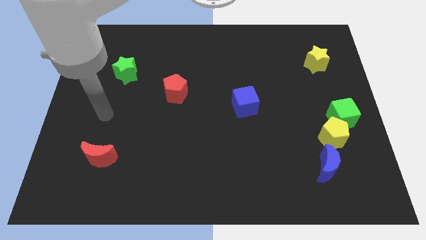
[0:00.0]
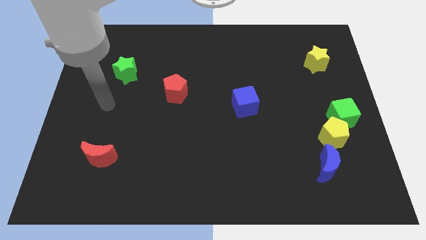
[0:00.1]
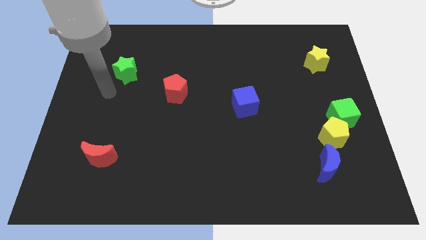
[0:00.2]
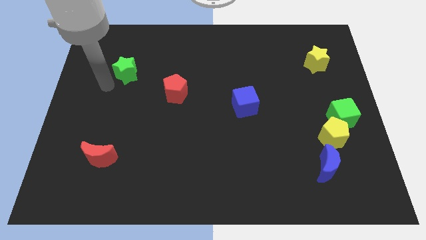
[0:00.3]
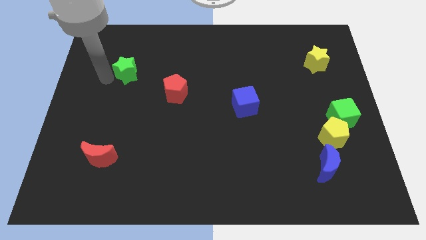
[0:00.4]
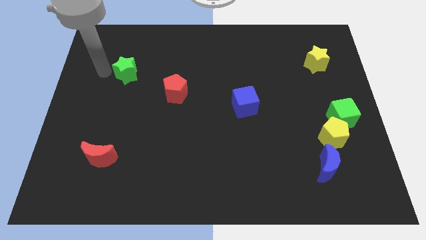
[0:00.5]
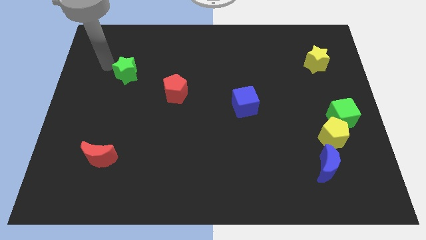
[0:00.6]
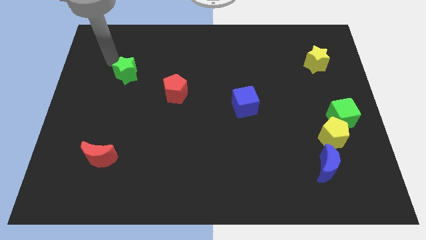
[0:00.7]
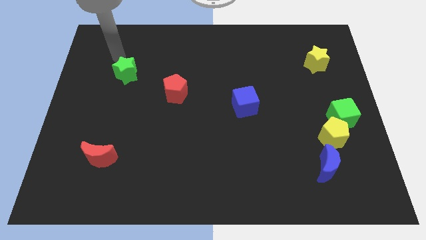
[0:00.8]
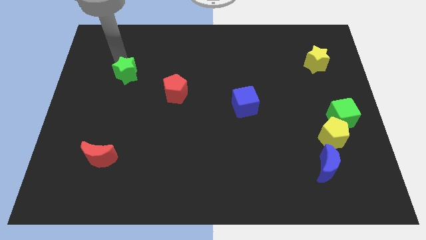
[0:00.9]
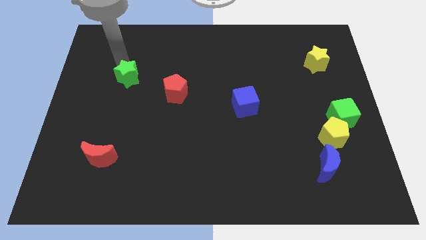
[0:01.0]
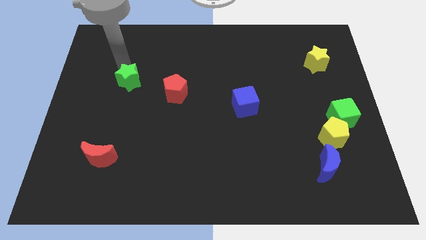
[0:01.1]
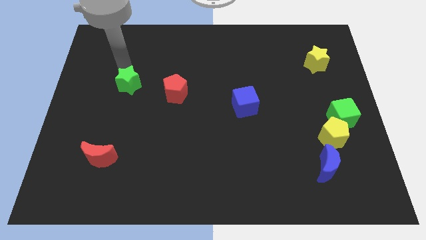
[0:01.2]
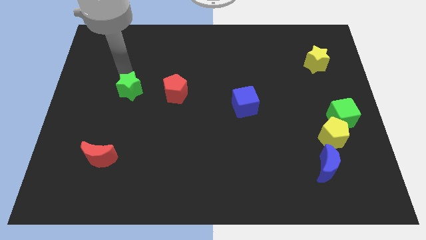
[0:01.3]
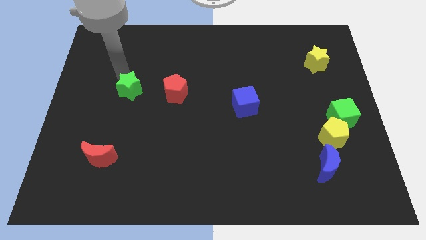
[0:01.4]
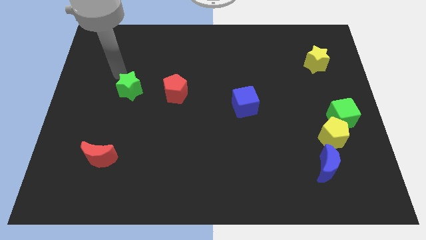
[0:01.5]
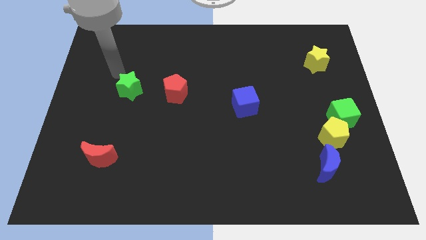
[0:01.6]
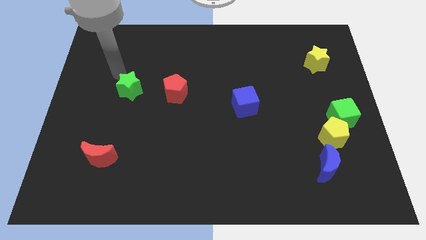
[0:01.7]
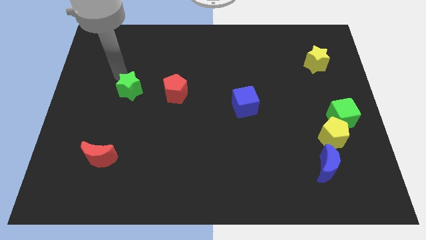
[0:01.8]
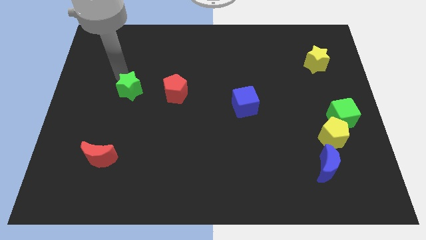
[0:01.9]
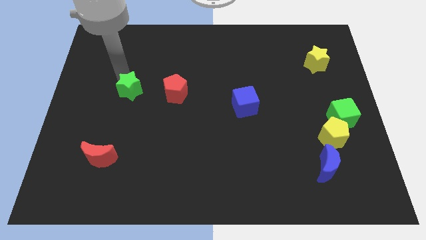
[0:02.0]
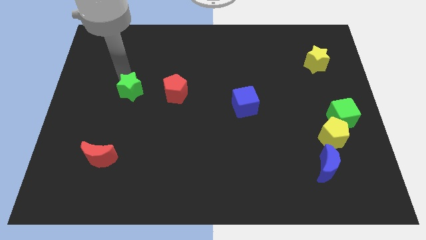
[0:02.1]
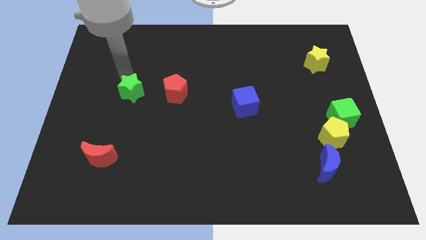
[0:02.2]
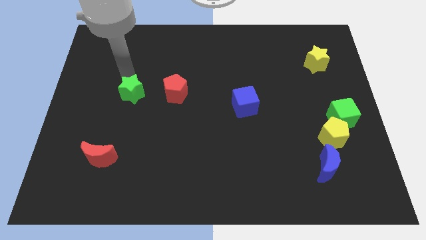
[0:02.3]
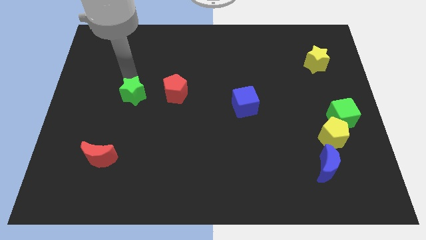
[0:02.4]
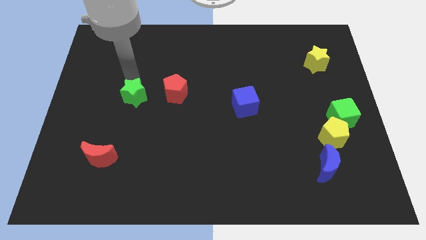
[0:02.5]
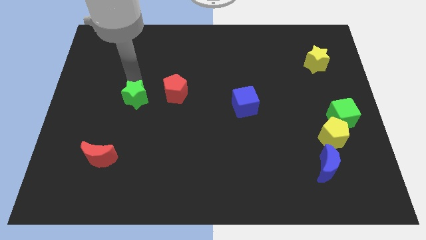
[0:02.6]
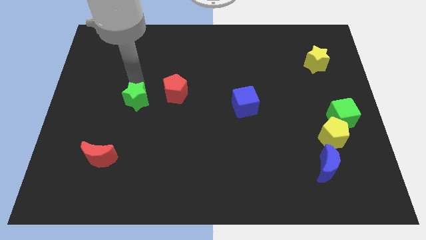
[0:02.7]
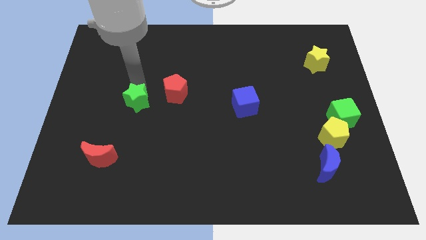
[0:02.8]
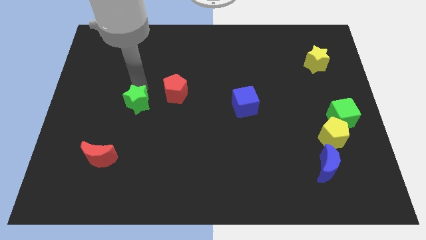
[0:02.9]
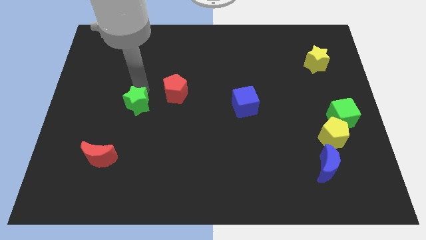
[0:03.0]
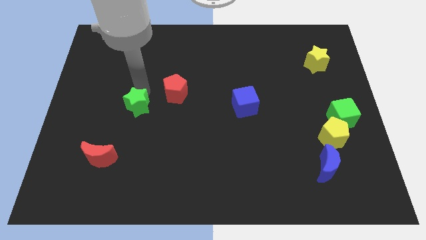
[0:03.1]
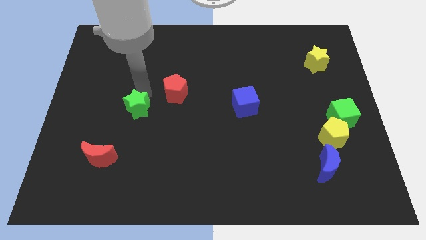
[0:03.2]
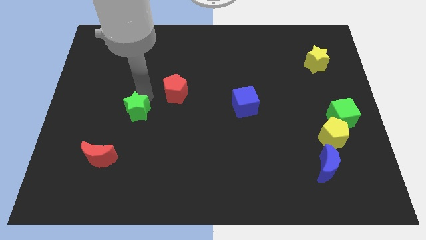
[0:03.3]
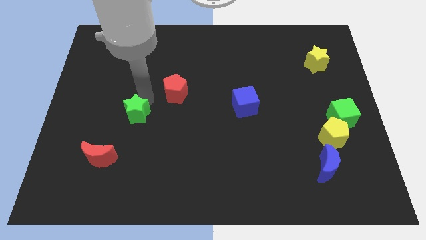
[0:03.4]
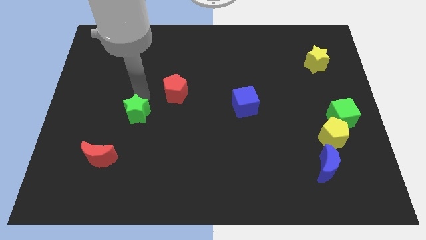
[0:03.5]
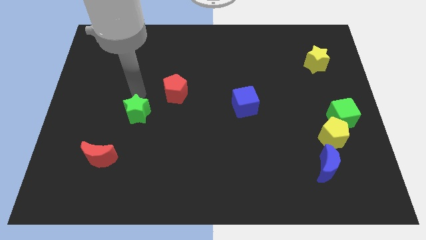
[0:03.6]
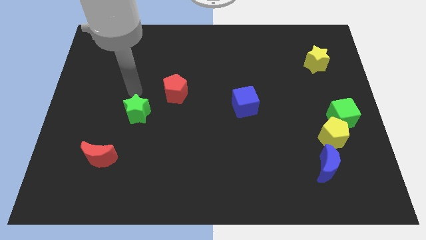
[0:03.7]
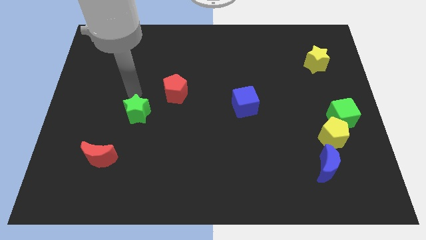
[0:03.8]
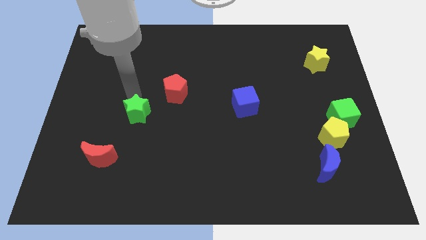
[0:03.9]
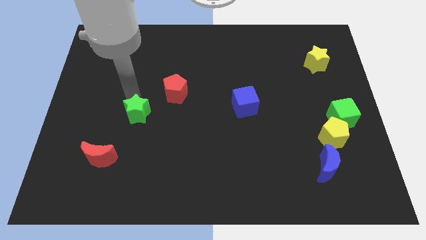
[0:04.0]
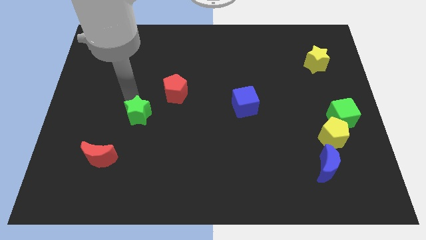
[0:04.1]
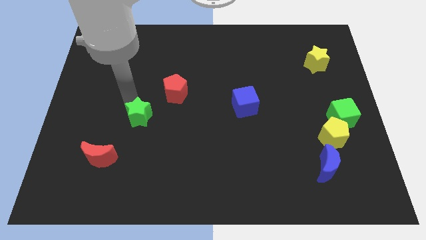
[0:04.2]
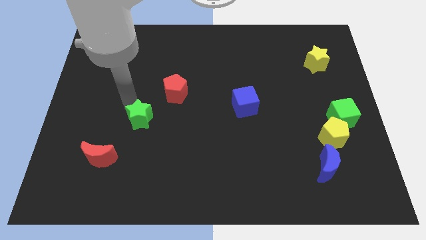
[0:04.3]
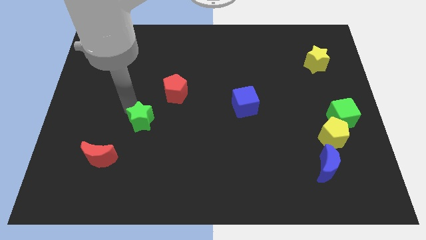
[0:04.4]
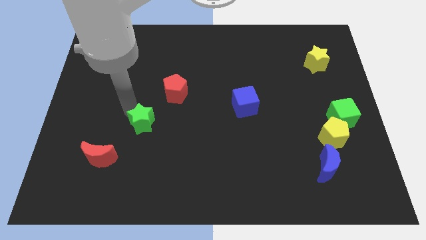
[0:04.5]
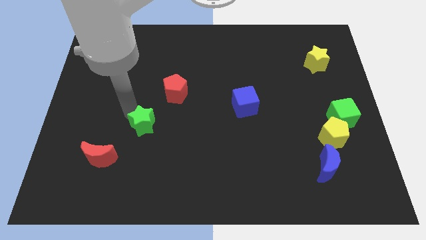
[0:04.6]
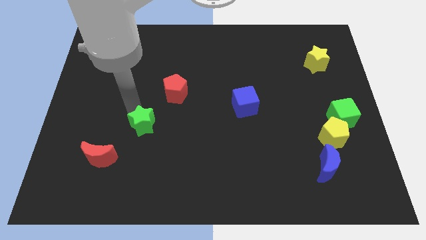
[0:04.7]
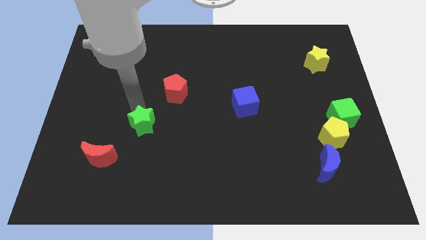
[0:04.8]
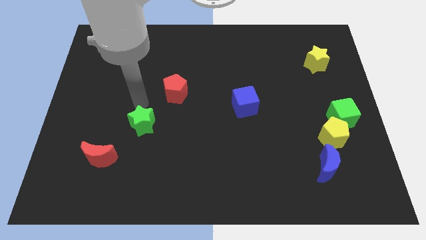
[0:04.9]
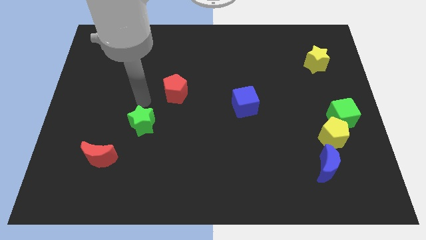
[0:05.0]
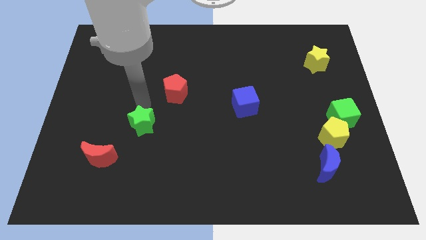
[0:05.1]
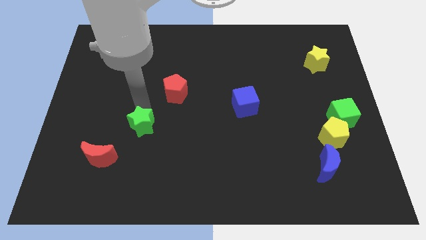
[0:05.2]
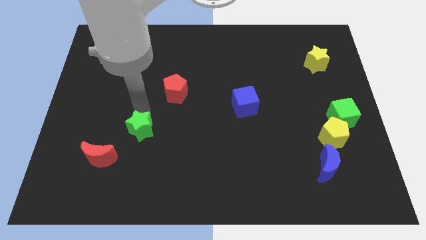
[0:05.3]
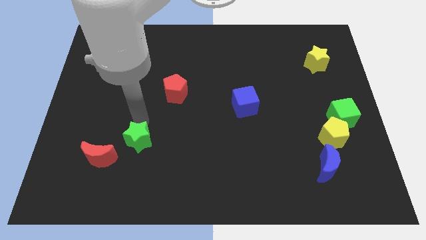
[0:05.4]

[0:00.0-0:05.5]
push the green star just right of the red moon

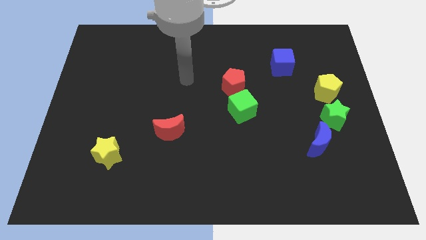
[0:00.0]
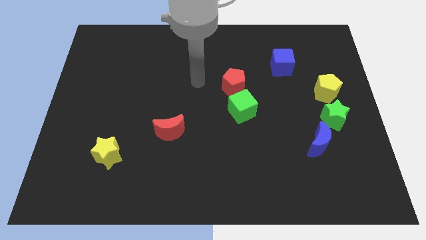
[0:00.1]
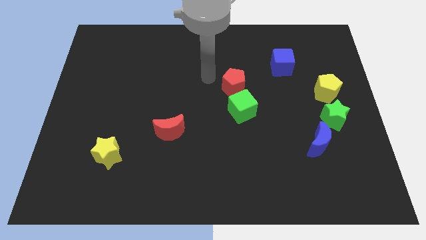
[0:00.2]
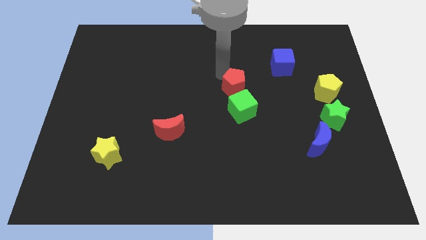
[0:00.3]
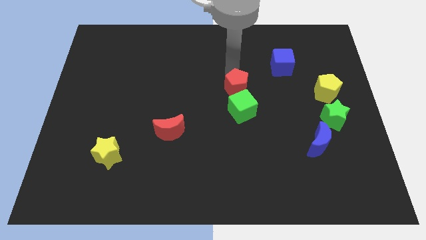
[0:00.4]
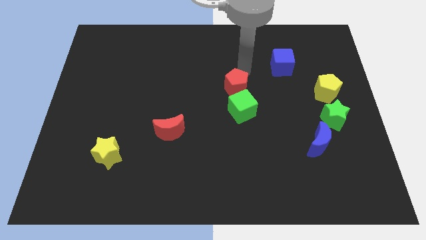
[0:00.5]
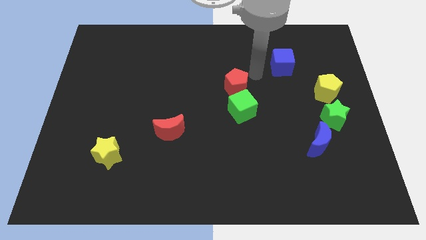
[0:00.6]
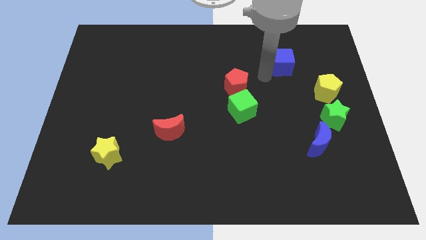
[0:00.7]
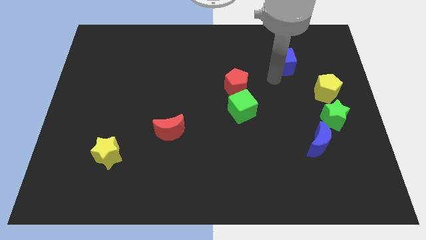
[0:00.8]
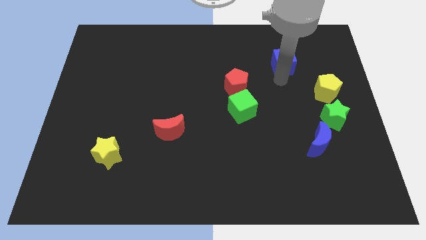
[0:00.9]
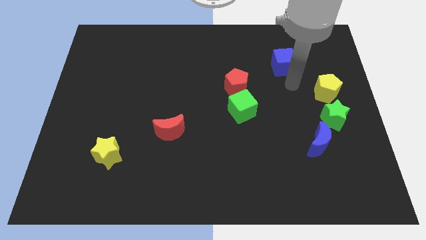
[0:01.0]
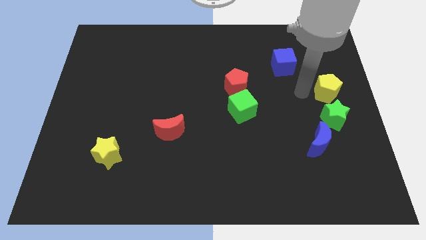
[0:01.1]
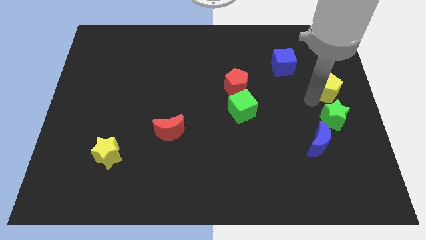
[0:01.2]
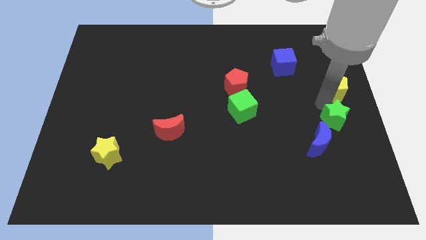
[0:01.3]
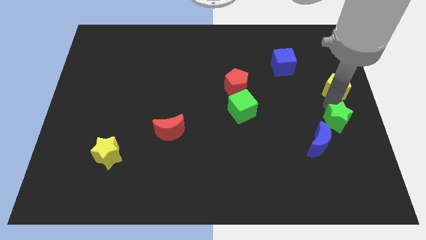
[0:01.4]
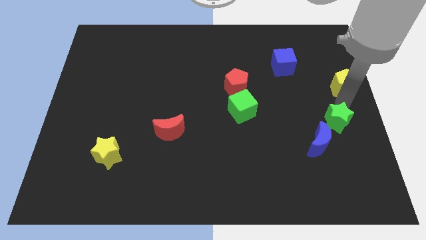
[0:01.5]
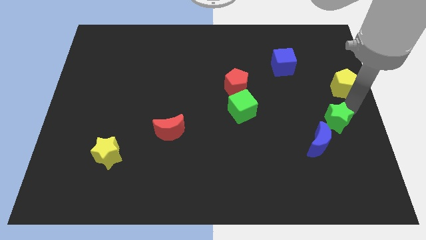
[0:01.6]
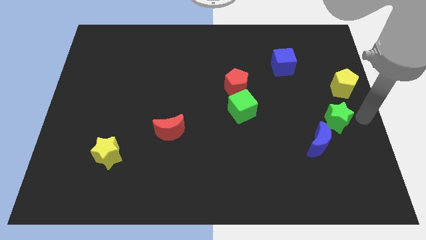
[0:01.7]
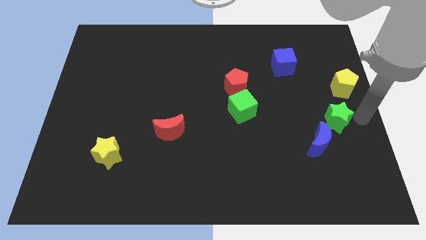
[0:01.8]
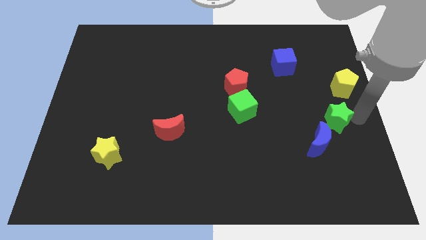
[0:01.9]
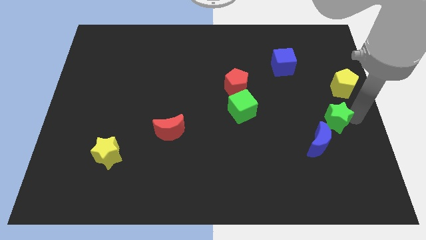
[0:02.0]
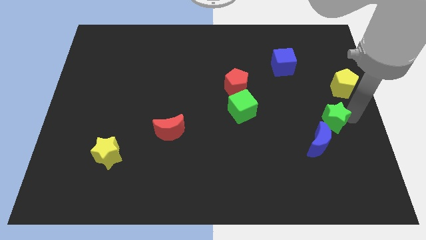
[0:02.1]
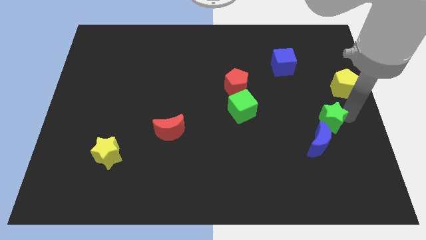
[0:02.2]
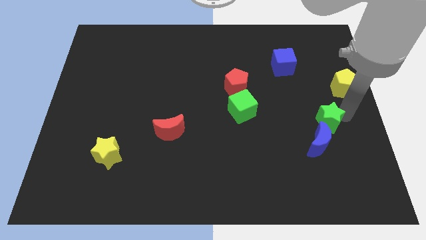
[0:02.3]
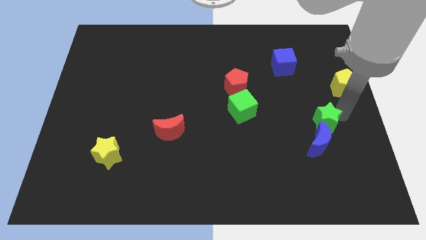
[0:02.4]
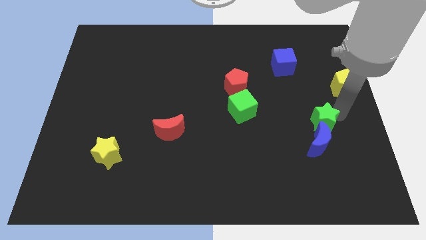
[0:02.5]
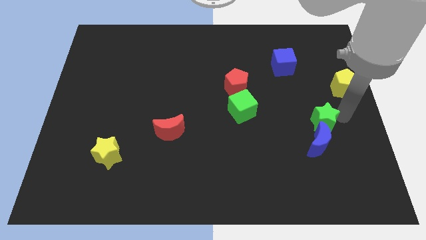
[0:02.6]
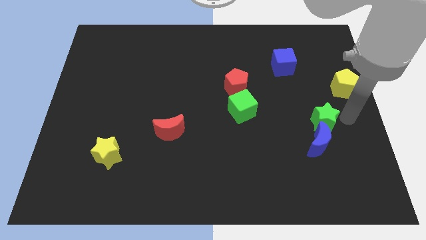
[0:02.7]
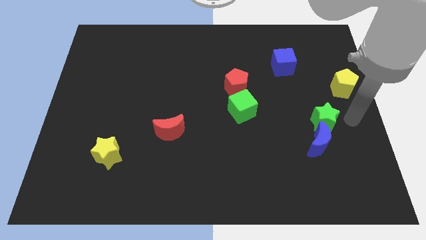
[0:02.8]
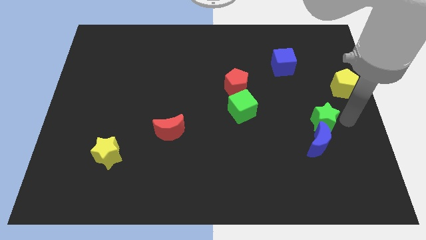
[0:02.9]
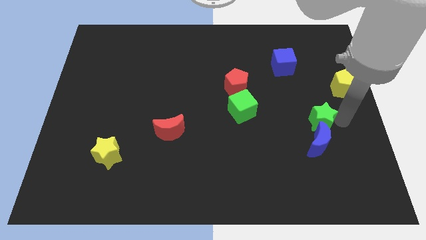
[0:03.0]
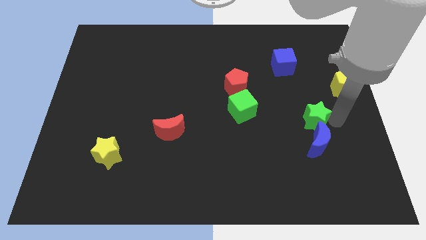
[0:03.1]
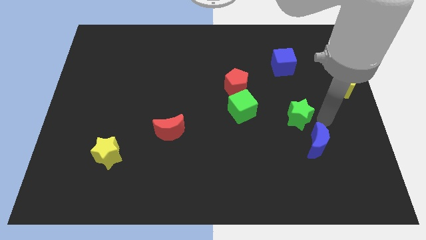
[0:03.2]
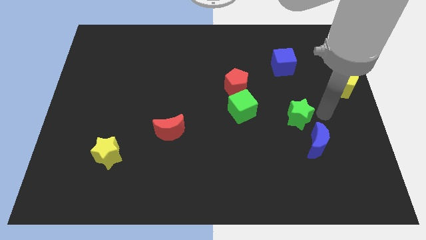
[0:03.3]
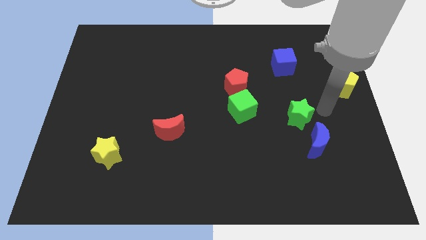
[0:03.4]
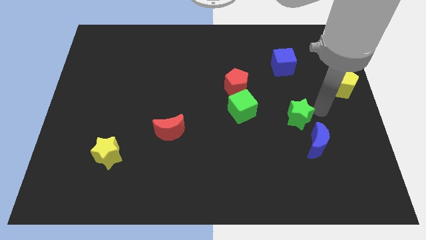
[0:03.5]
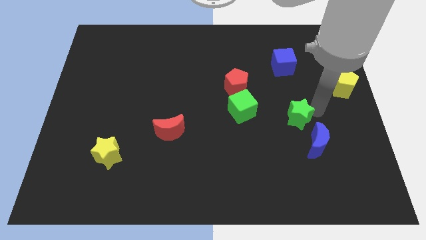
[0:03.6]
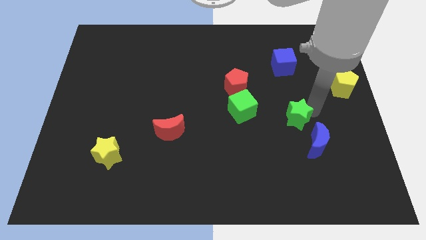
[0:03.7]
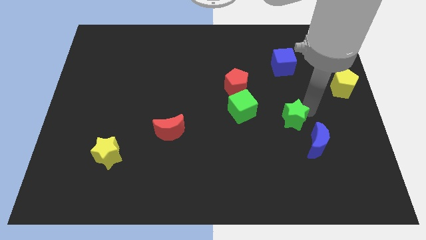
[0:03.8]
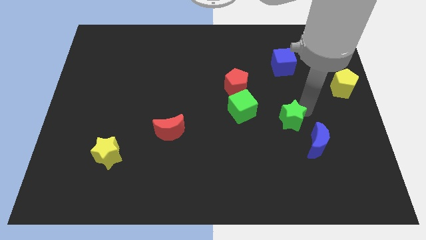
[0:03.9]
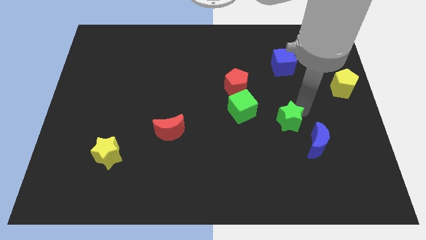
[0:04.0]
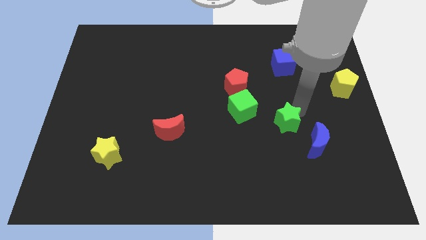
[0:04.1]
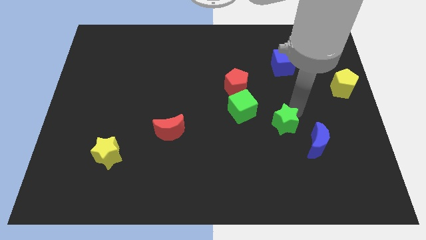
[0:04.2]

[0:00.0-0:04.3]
move the green star to the bottom right of the green cube
